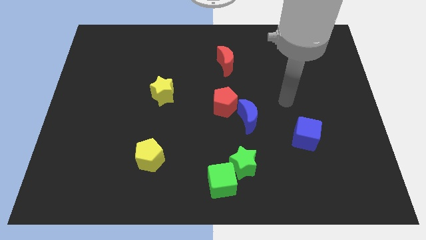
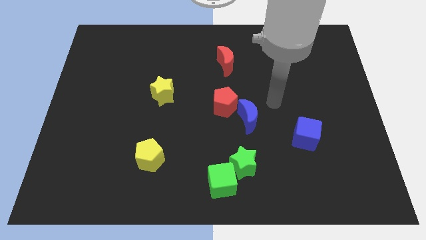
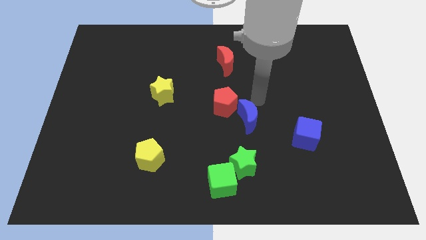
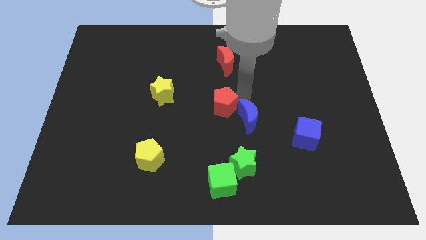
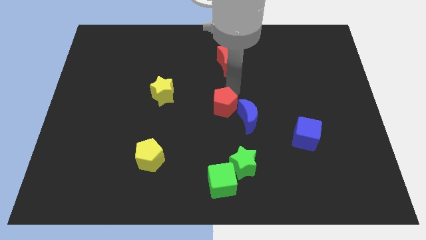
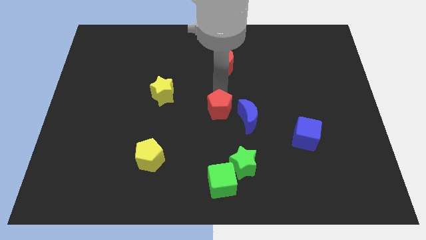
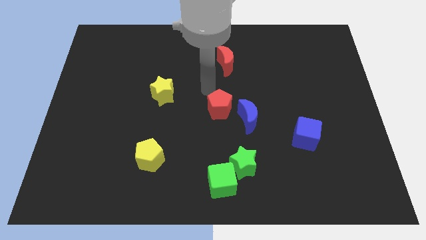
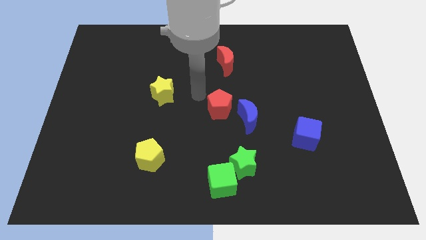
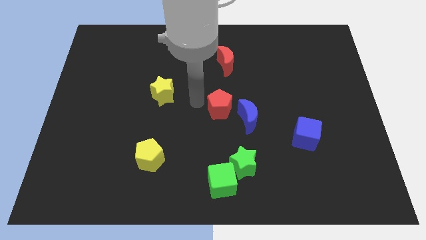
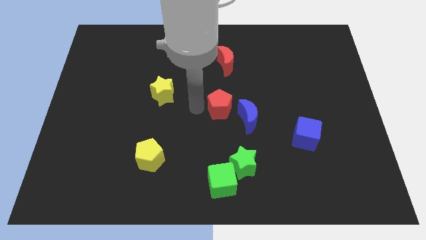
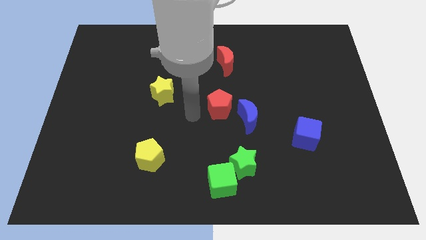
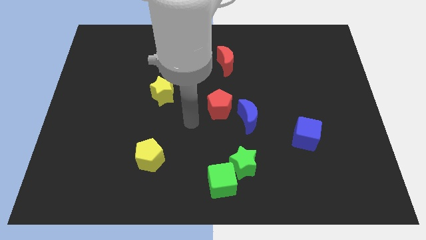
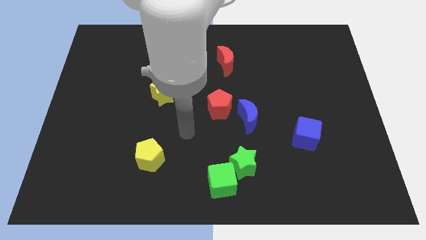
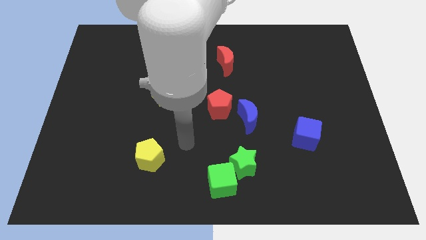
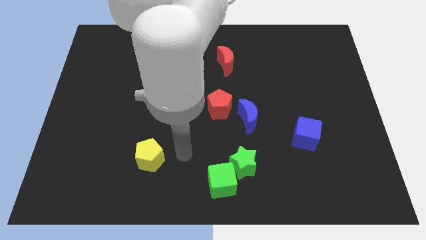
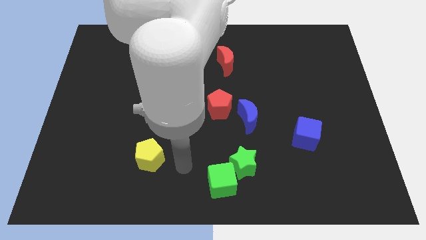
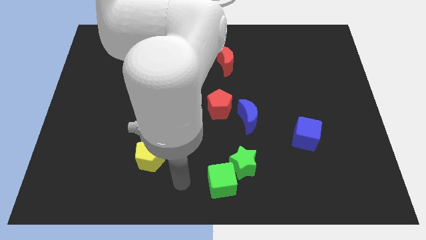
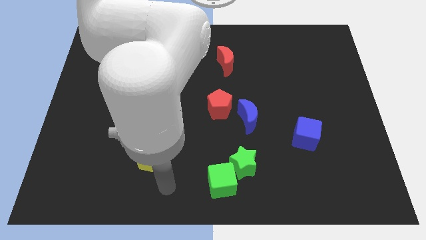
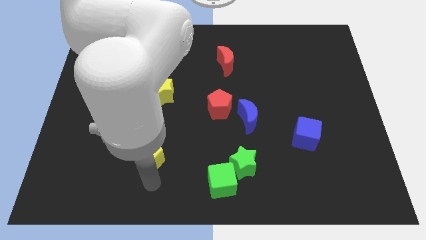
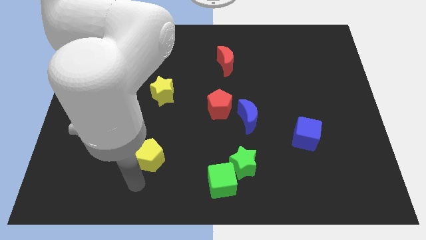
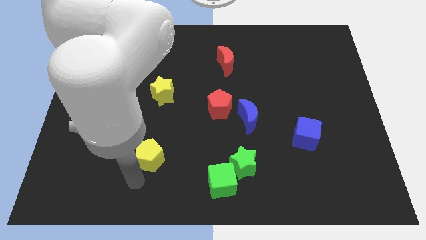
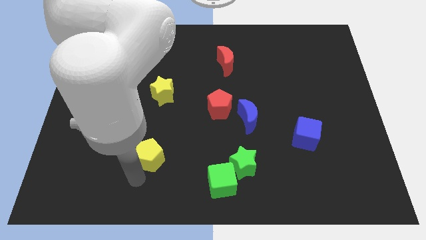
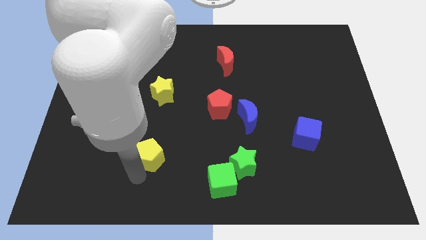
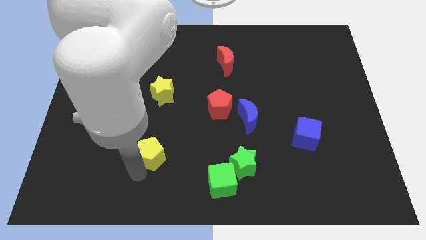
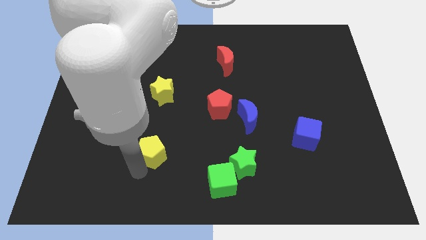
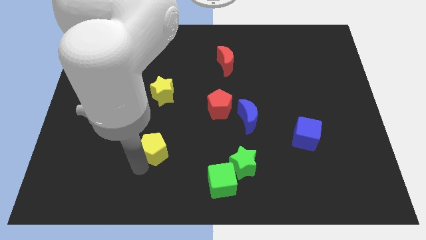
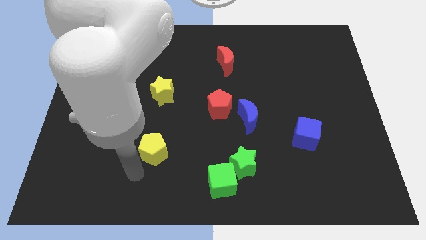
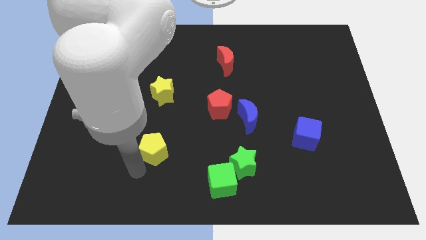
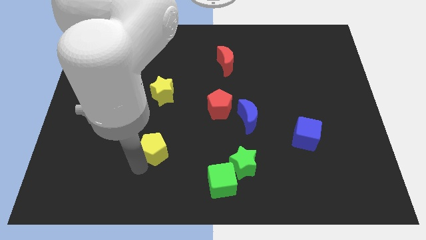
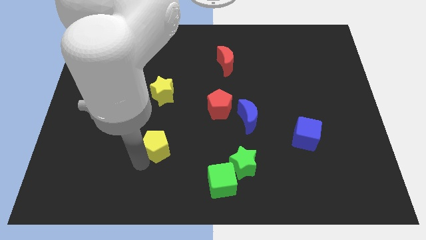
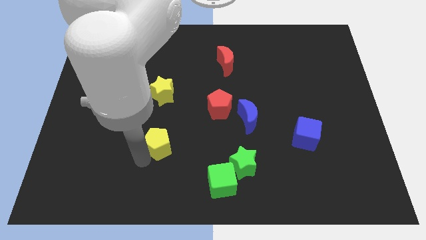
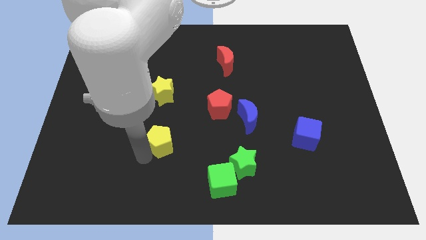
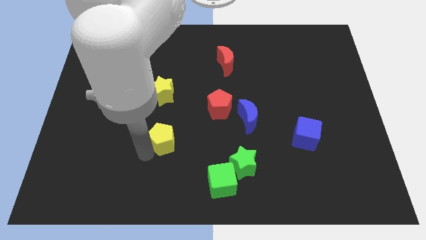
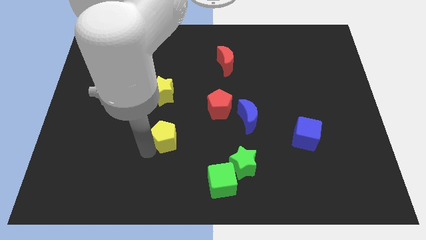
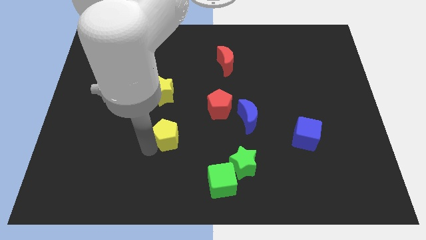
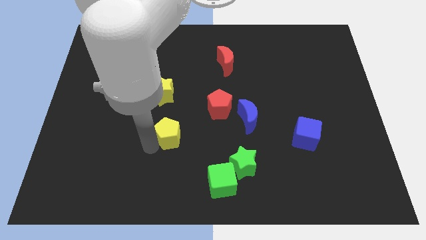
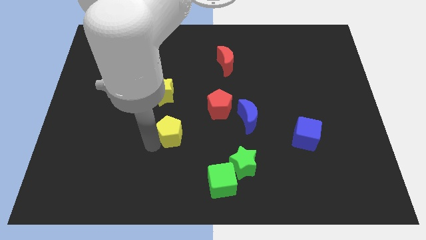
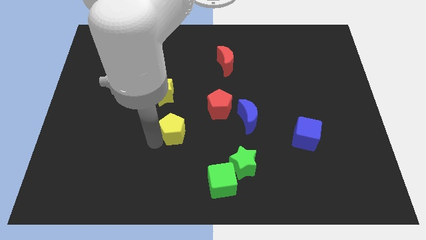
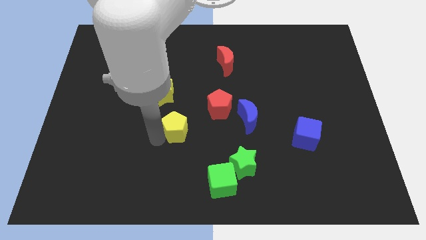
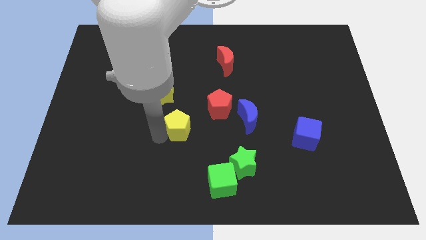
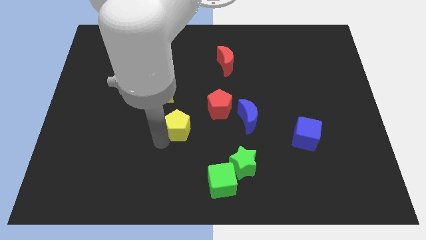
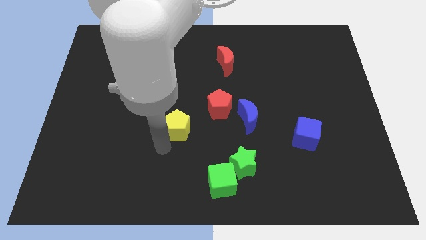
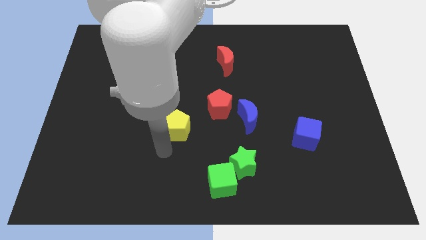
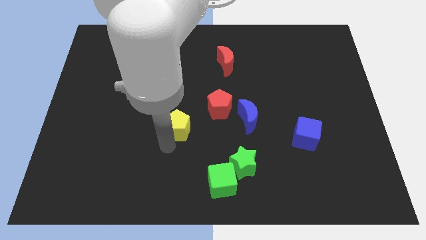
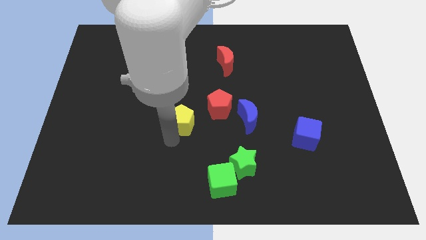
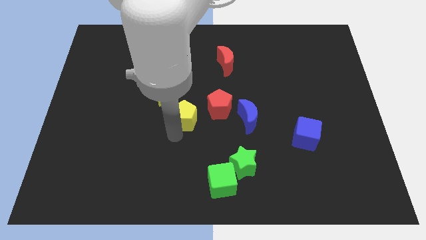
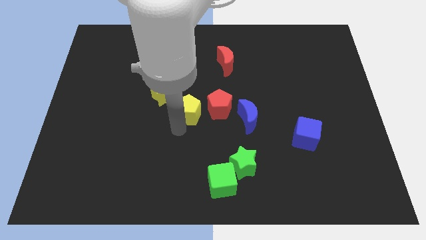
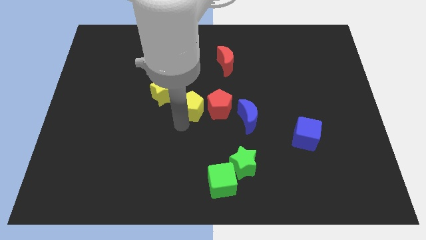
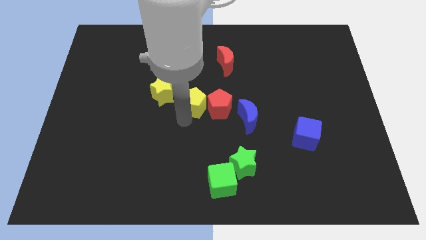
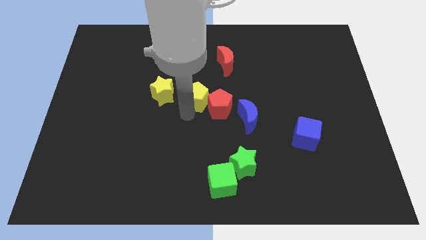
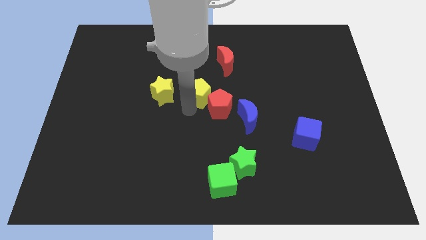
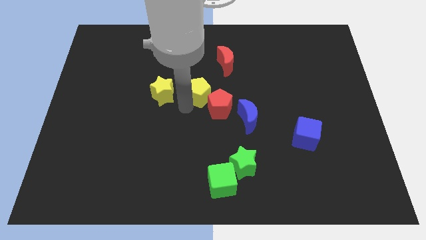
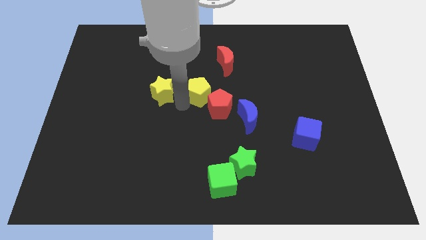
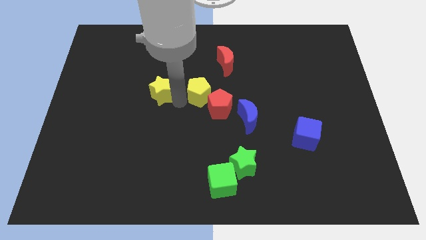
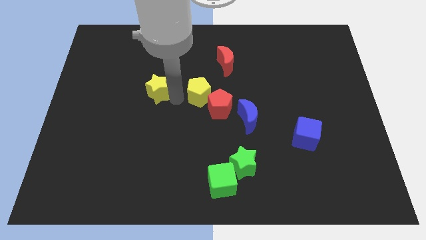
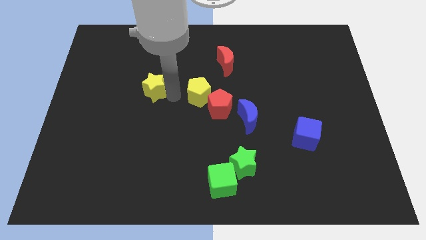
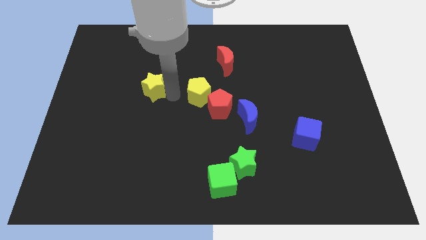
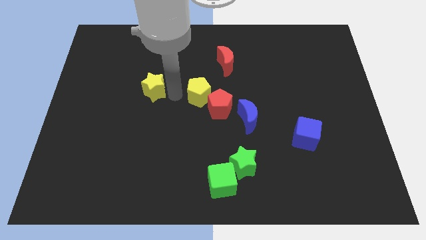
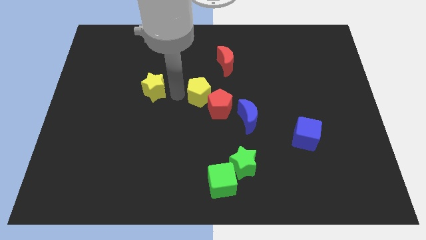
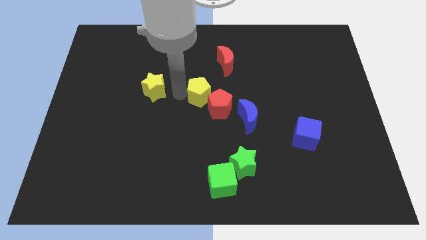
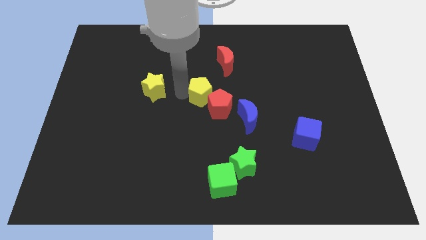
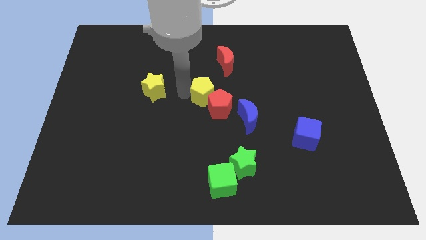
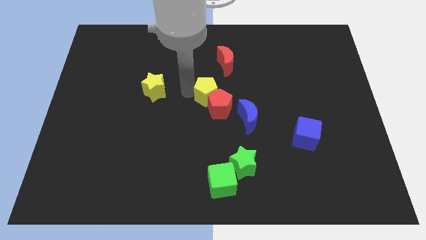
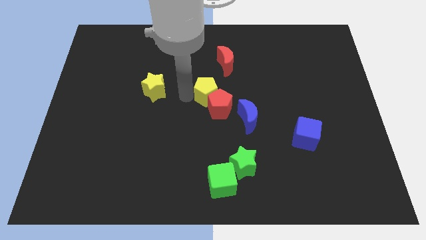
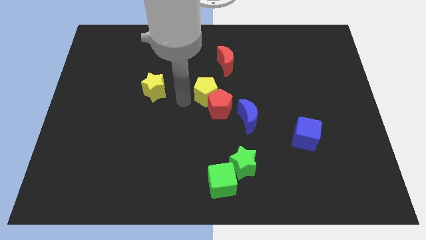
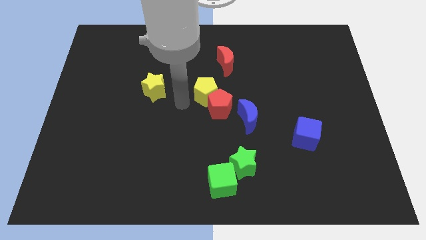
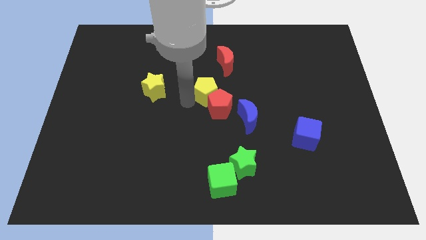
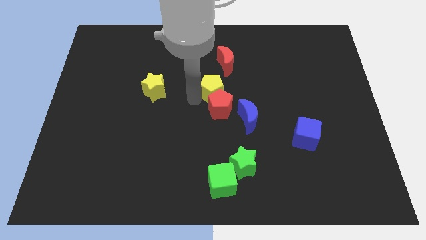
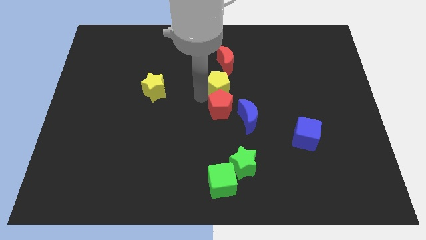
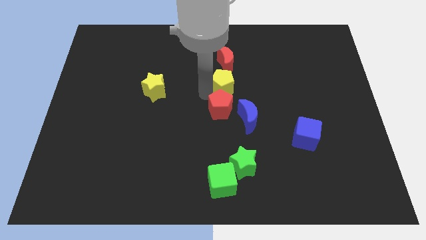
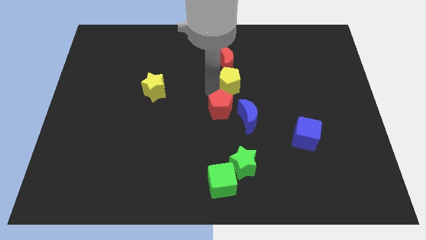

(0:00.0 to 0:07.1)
slide the yellow pentagon diagonally down and to the right of the red moon
